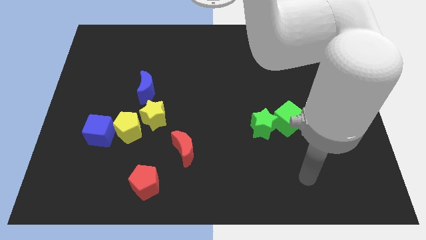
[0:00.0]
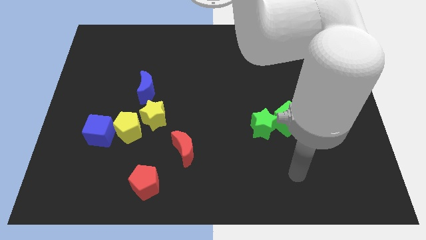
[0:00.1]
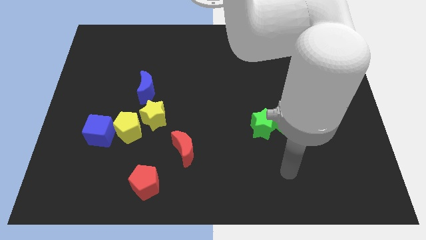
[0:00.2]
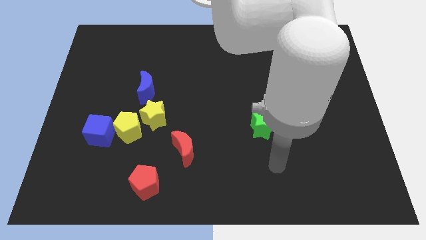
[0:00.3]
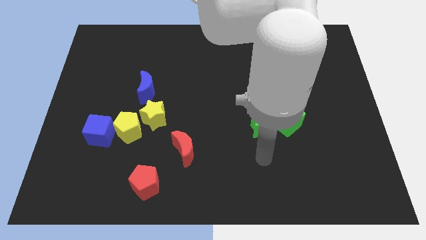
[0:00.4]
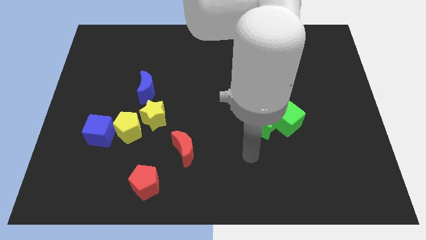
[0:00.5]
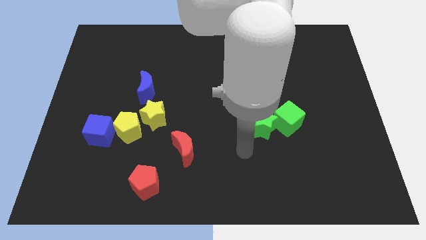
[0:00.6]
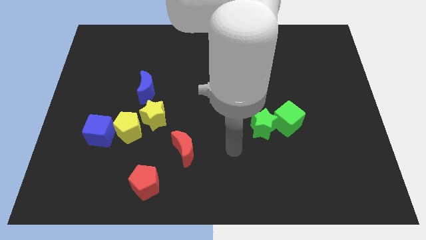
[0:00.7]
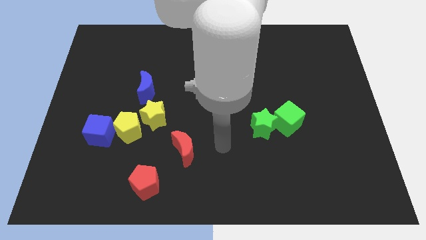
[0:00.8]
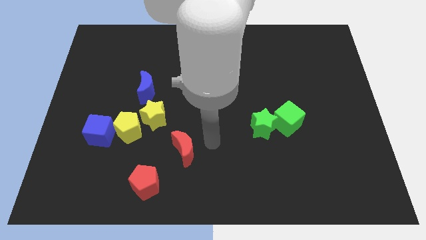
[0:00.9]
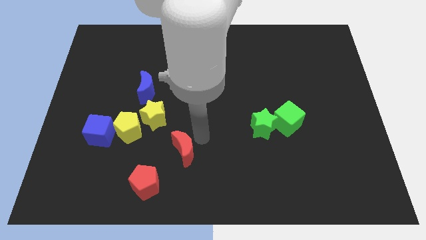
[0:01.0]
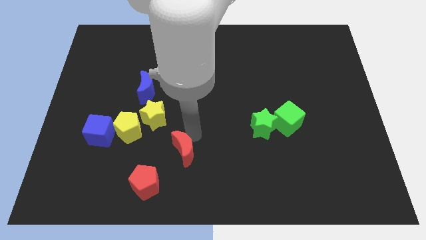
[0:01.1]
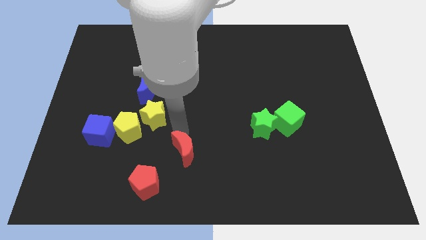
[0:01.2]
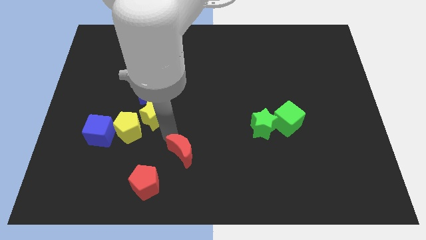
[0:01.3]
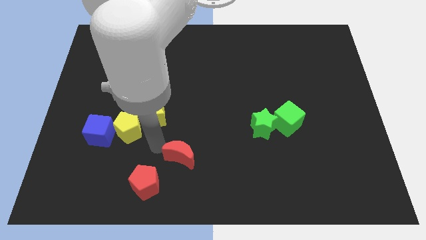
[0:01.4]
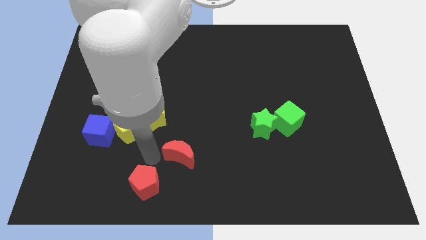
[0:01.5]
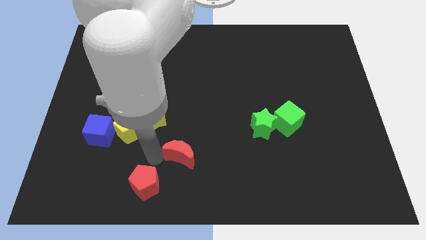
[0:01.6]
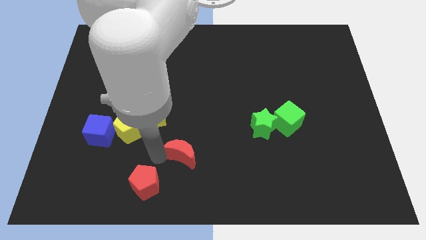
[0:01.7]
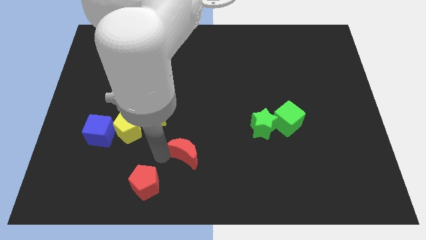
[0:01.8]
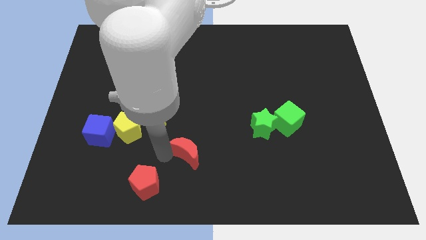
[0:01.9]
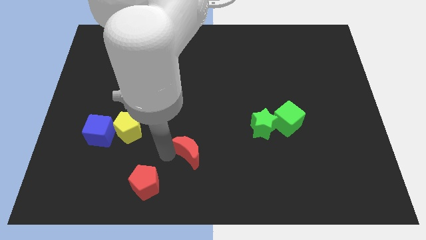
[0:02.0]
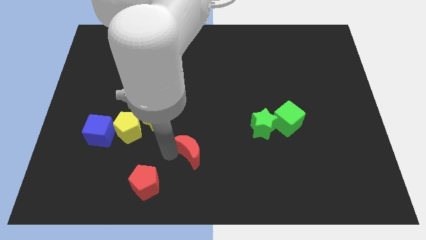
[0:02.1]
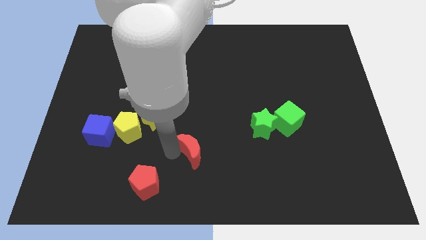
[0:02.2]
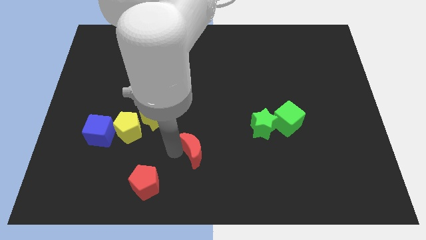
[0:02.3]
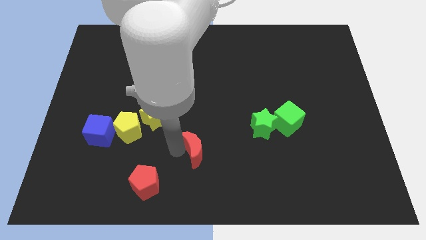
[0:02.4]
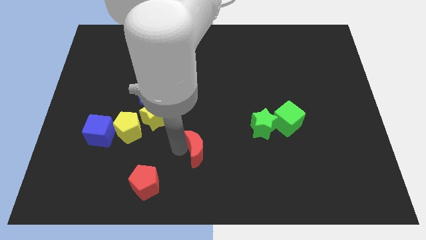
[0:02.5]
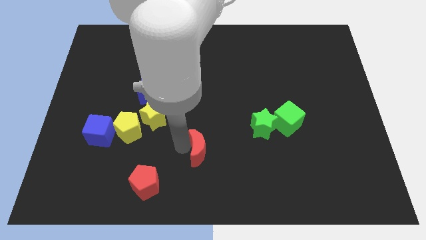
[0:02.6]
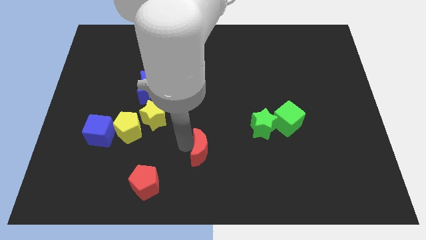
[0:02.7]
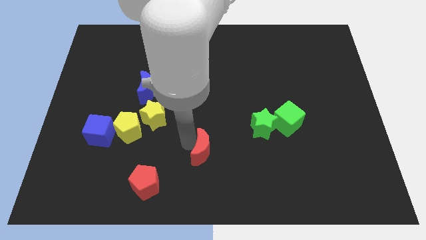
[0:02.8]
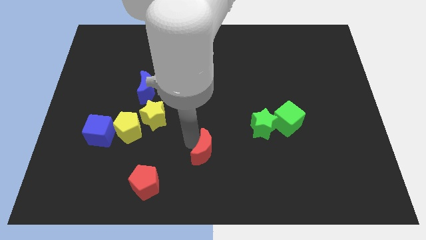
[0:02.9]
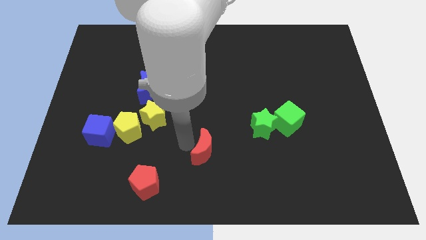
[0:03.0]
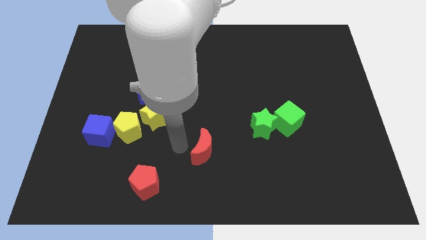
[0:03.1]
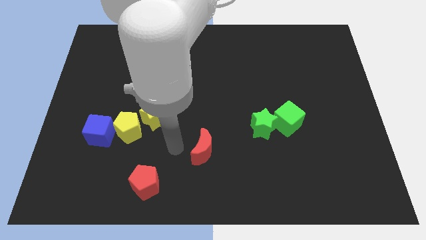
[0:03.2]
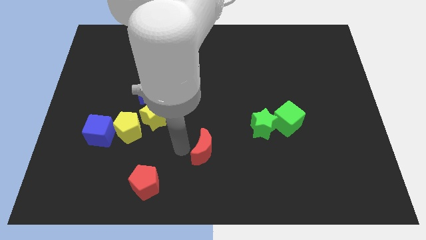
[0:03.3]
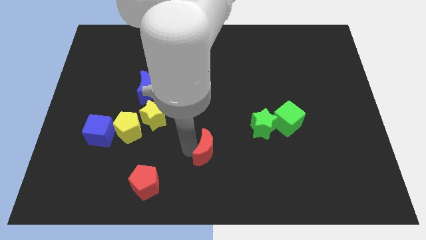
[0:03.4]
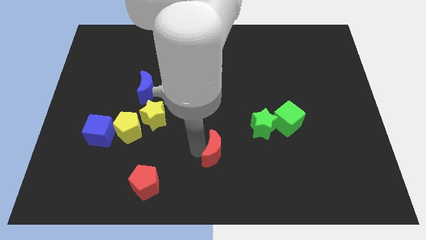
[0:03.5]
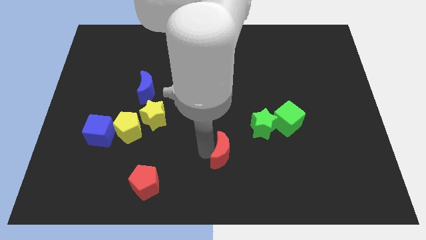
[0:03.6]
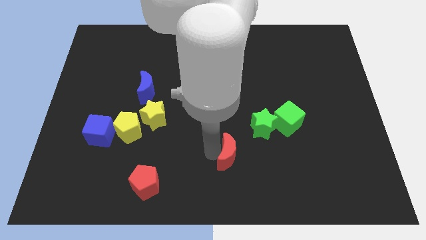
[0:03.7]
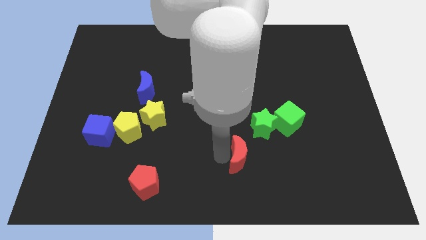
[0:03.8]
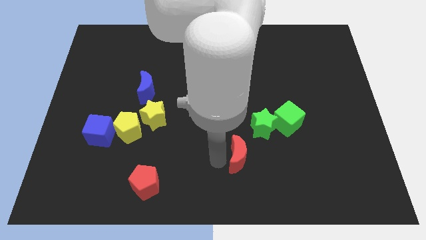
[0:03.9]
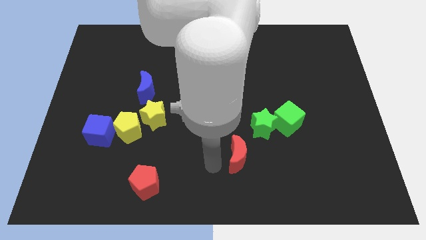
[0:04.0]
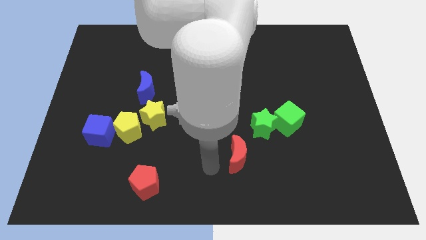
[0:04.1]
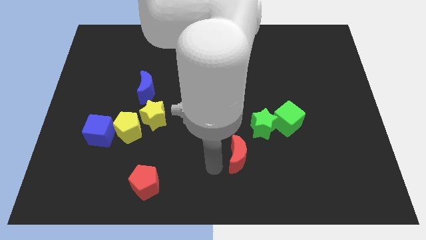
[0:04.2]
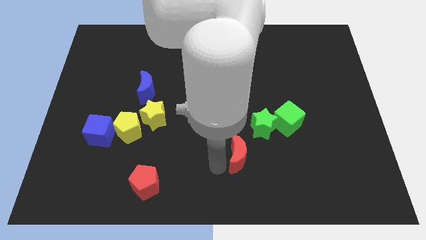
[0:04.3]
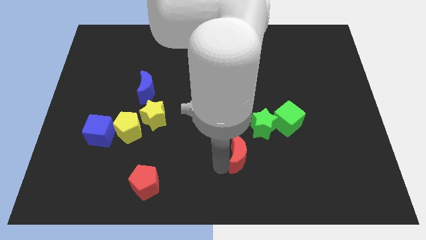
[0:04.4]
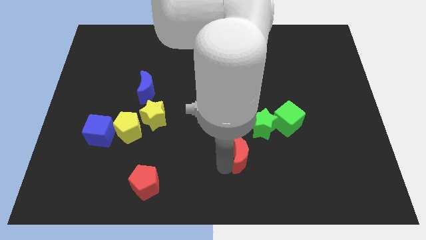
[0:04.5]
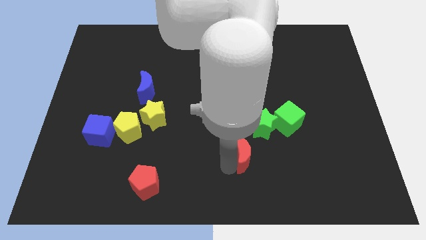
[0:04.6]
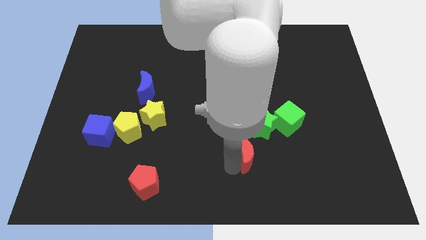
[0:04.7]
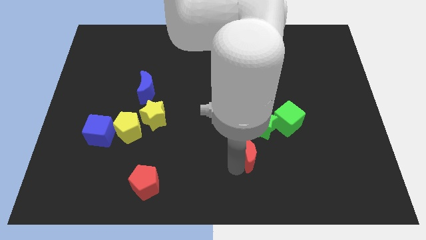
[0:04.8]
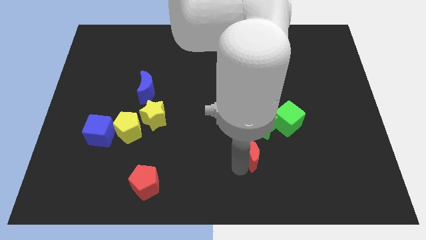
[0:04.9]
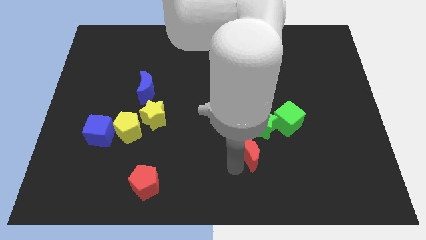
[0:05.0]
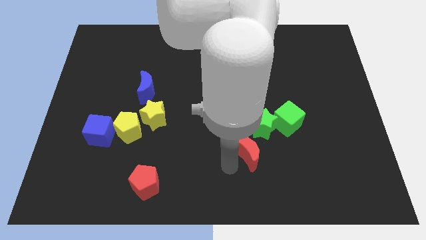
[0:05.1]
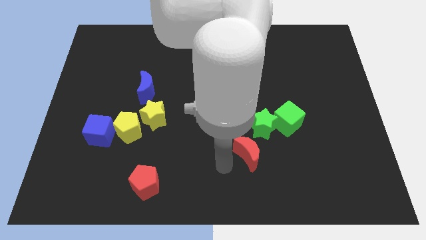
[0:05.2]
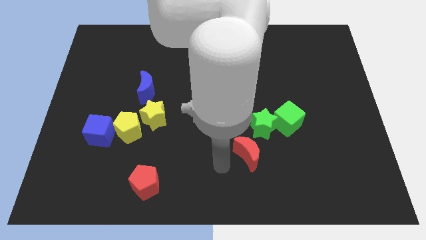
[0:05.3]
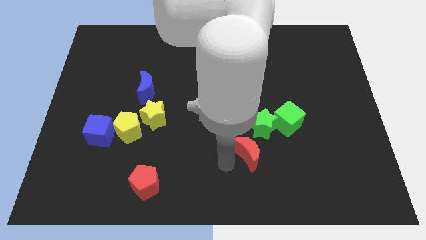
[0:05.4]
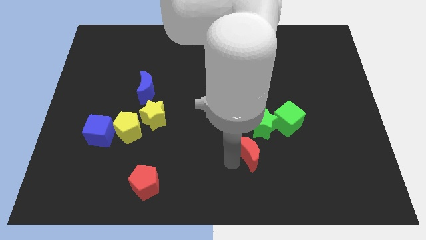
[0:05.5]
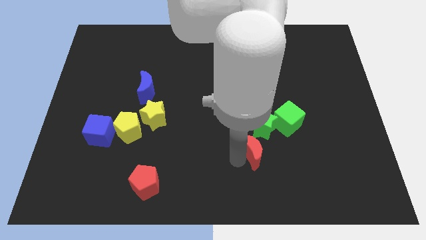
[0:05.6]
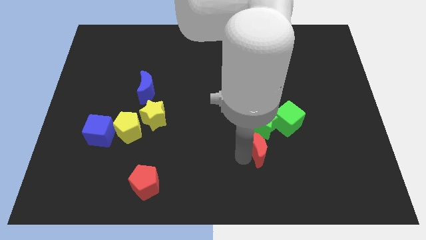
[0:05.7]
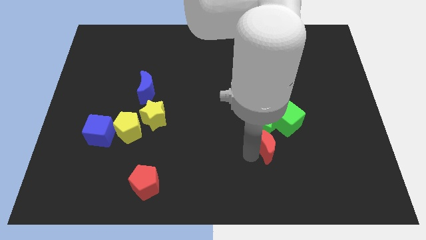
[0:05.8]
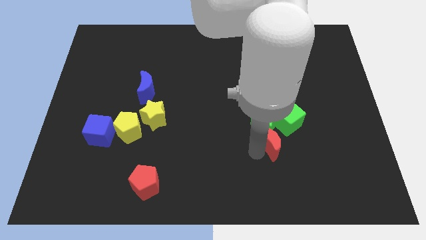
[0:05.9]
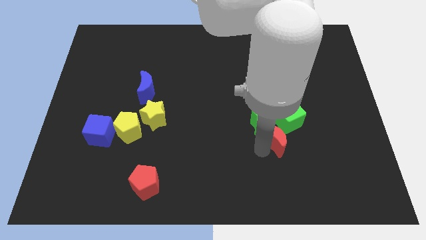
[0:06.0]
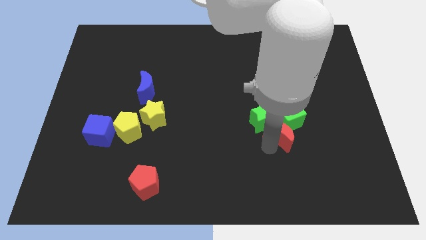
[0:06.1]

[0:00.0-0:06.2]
push the red moon towards the green cube

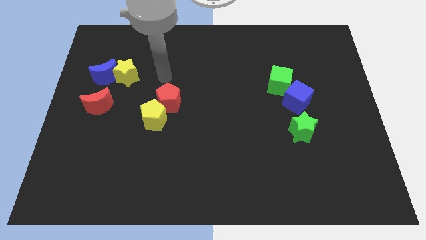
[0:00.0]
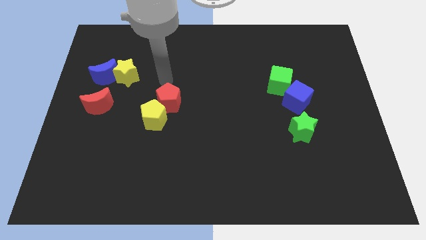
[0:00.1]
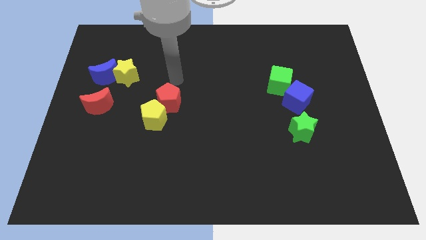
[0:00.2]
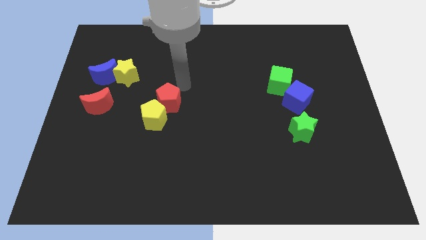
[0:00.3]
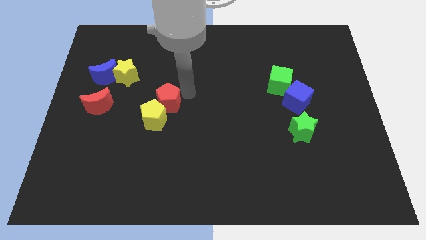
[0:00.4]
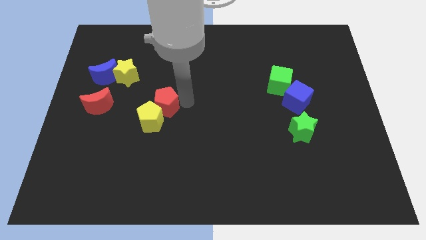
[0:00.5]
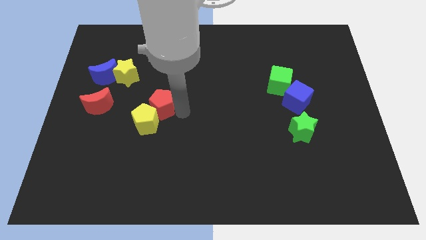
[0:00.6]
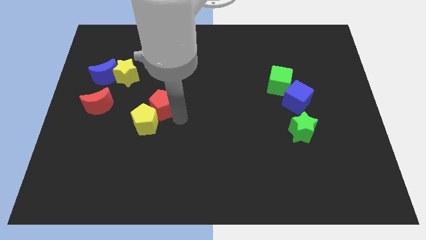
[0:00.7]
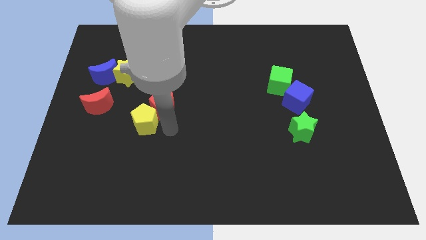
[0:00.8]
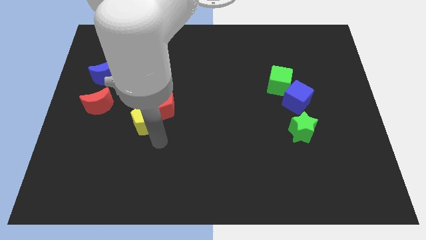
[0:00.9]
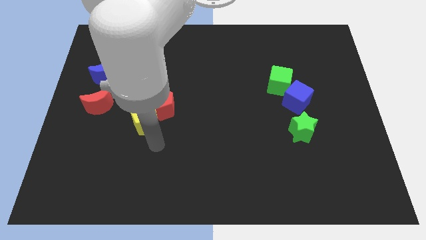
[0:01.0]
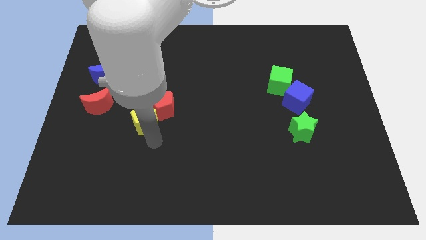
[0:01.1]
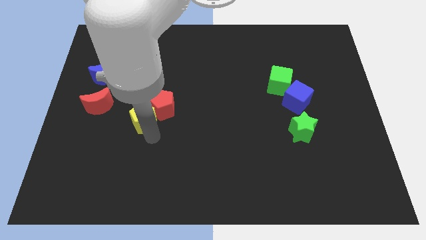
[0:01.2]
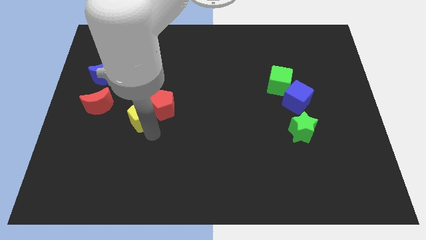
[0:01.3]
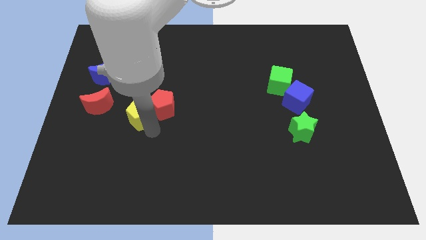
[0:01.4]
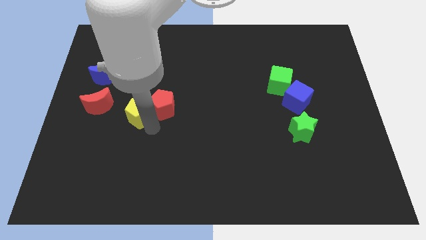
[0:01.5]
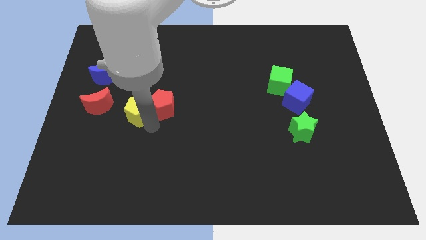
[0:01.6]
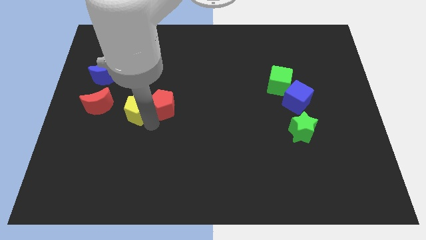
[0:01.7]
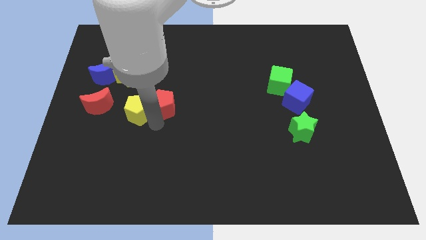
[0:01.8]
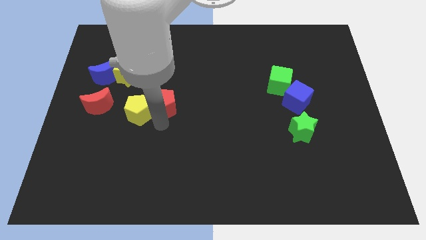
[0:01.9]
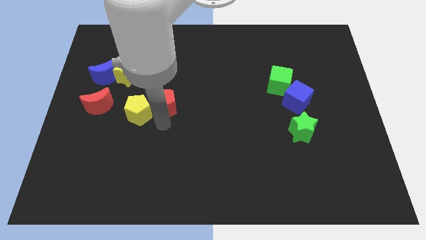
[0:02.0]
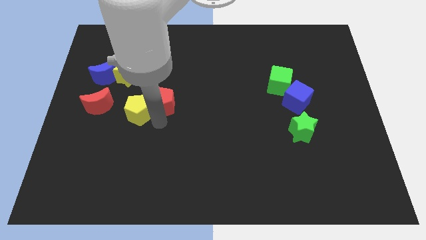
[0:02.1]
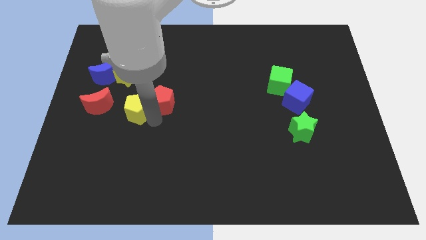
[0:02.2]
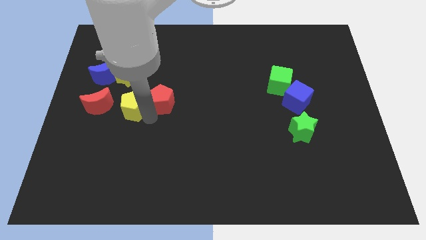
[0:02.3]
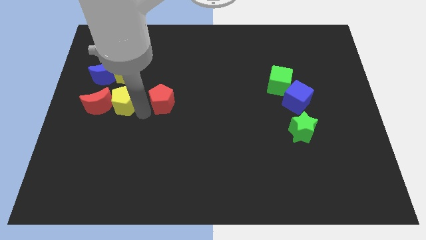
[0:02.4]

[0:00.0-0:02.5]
put the yellow pentagon to the red moon
